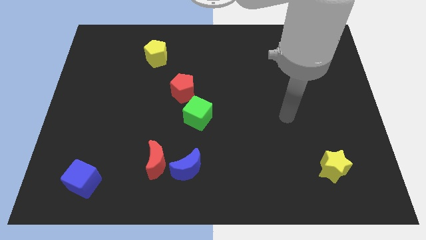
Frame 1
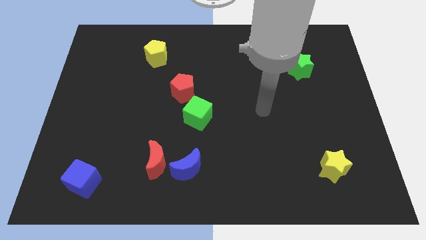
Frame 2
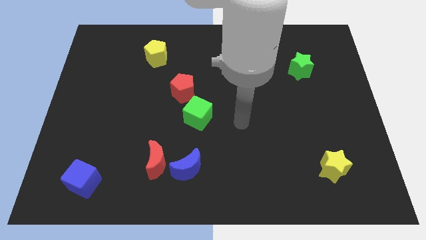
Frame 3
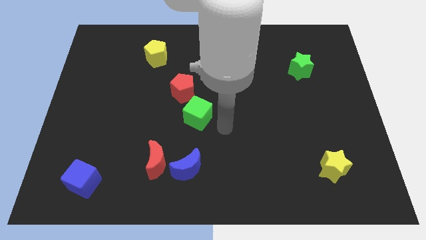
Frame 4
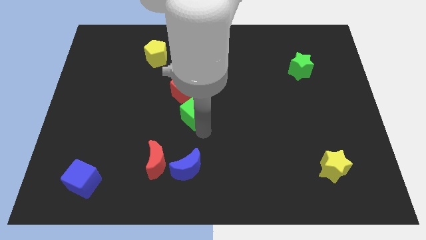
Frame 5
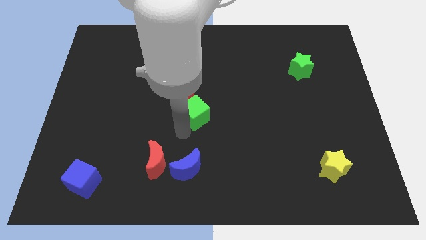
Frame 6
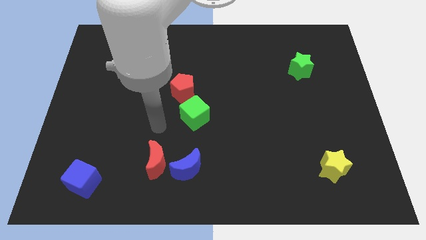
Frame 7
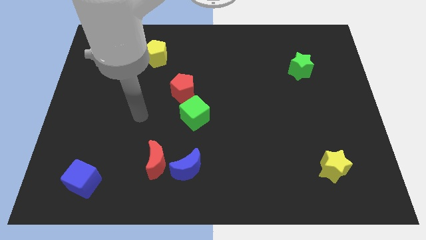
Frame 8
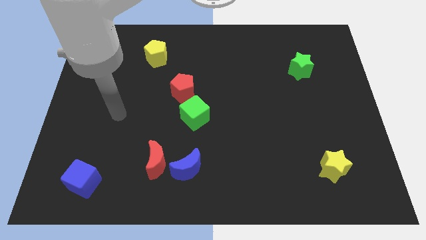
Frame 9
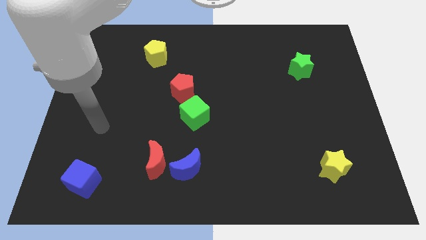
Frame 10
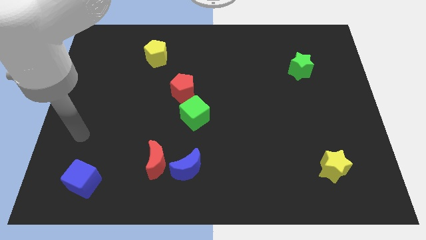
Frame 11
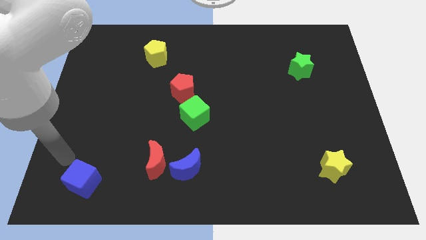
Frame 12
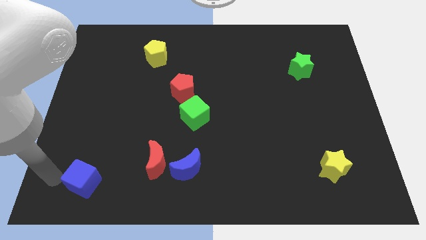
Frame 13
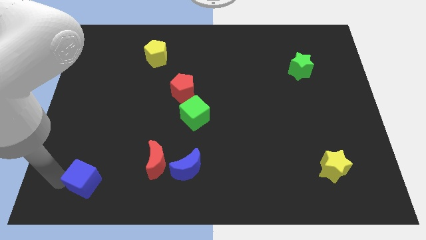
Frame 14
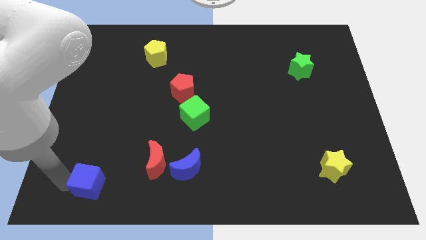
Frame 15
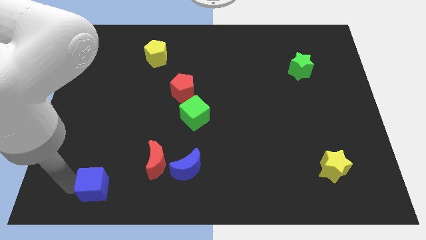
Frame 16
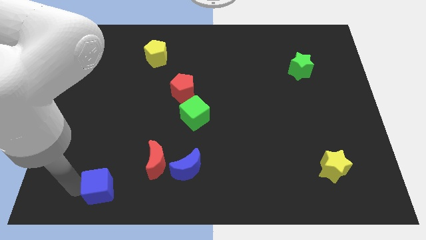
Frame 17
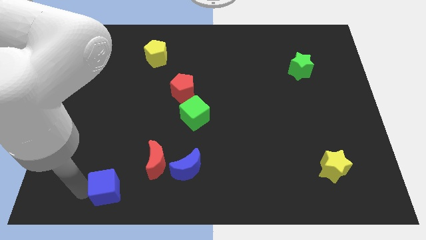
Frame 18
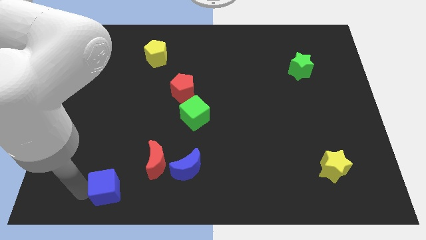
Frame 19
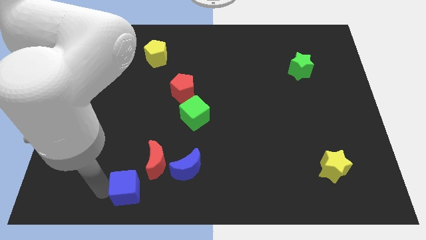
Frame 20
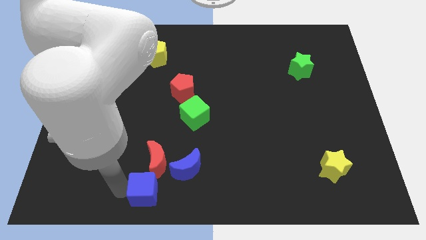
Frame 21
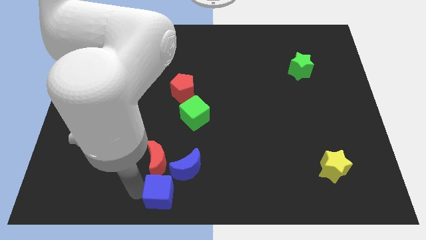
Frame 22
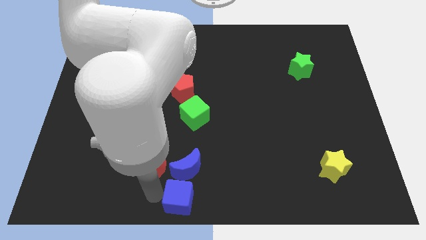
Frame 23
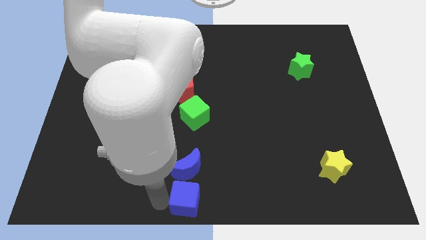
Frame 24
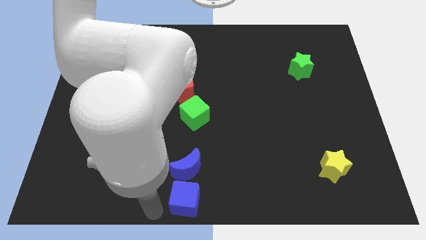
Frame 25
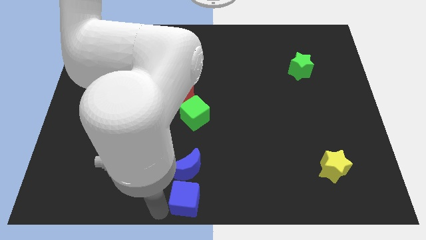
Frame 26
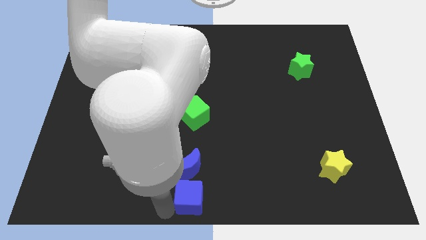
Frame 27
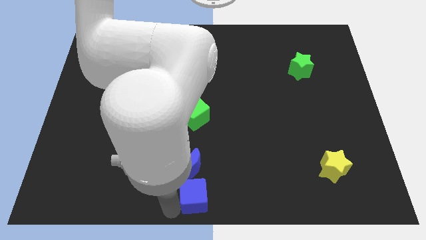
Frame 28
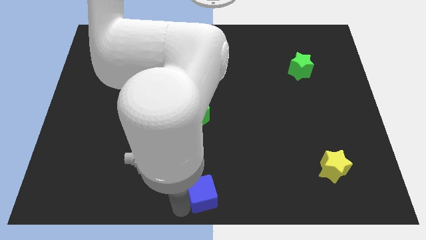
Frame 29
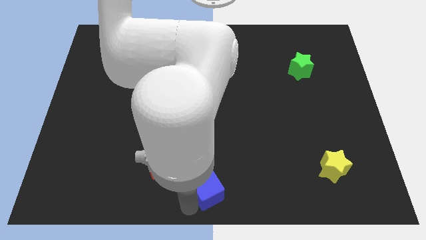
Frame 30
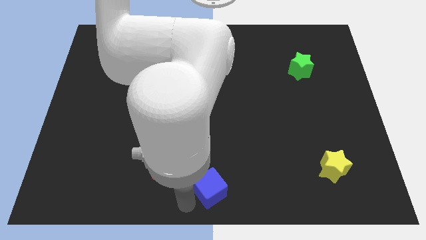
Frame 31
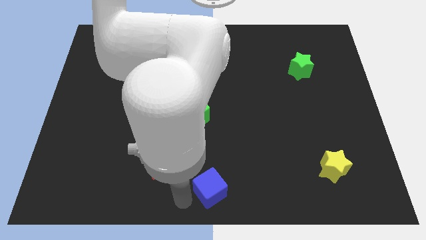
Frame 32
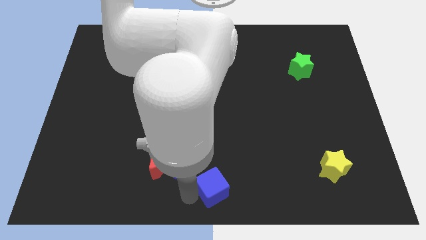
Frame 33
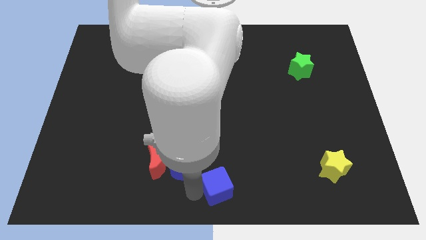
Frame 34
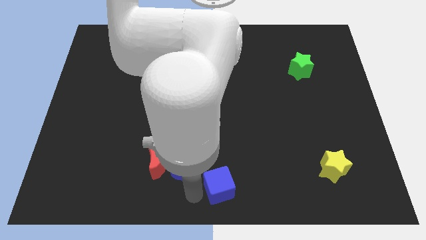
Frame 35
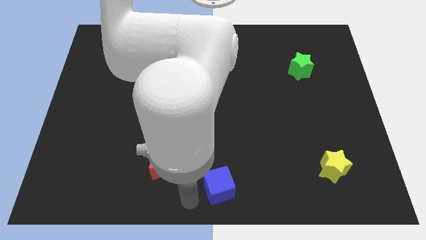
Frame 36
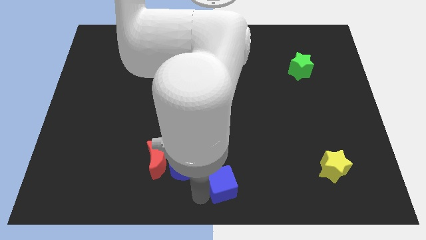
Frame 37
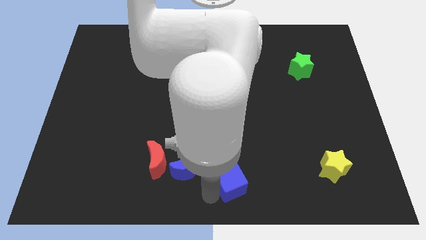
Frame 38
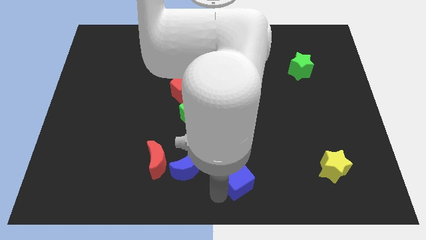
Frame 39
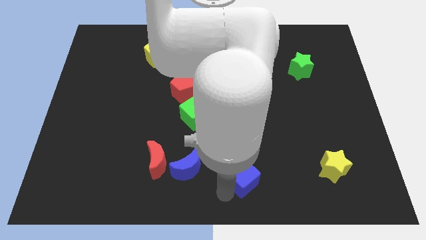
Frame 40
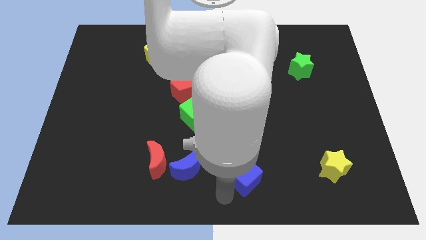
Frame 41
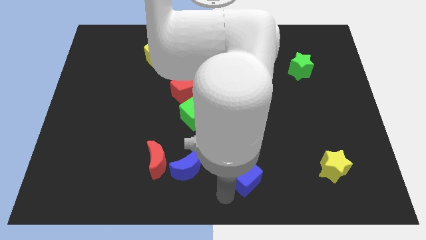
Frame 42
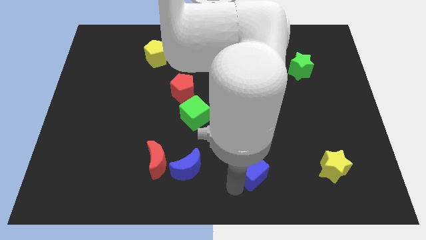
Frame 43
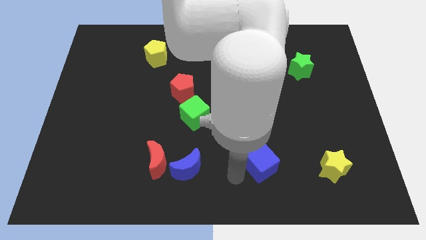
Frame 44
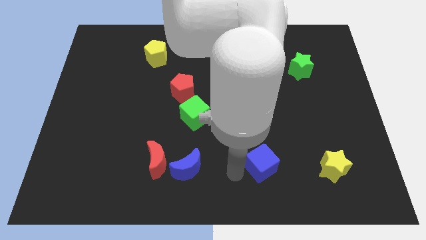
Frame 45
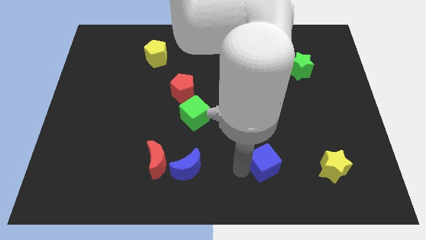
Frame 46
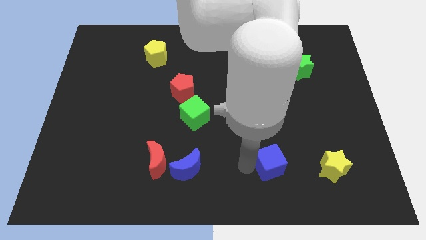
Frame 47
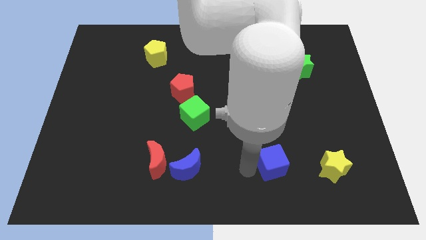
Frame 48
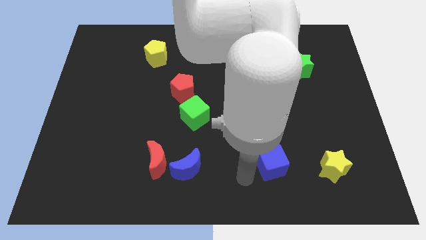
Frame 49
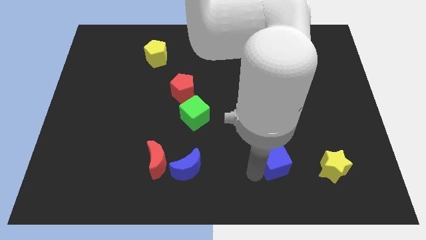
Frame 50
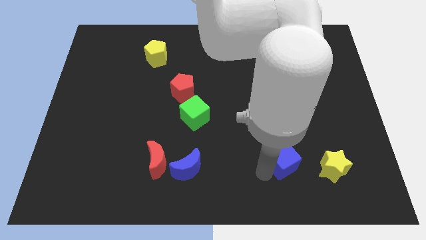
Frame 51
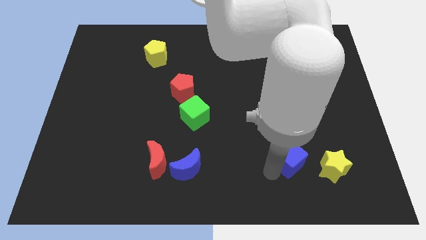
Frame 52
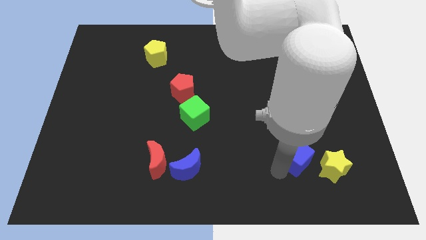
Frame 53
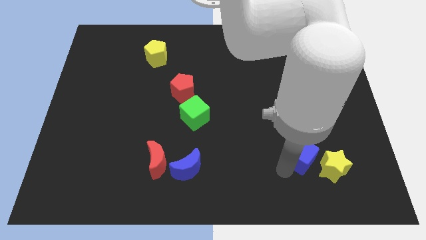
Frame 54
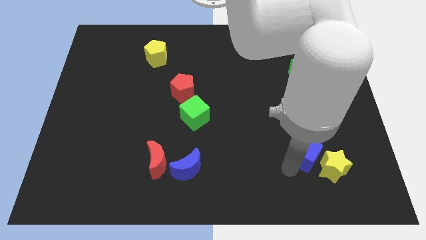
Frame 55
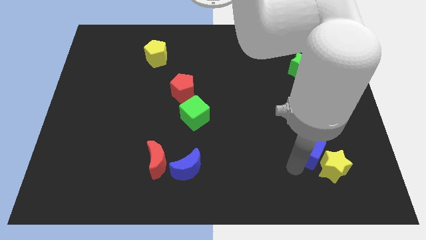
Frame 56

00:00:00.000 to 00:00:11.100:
push the blue cube above the yellow star

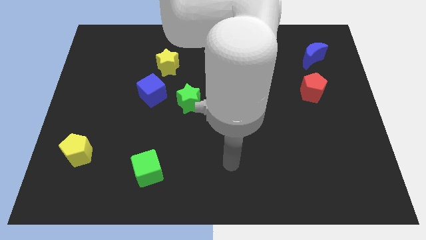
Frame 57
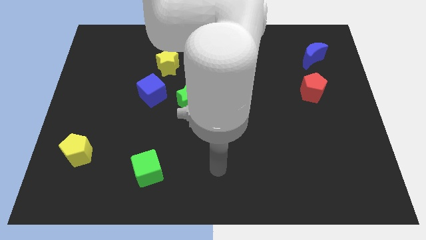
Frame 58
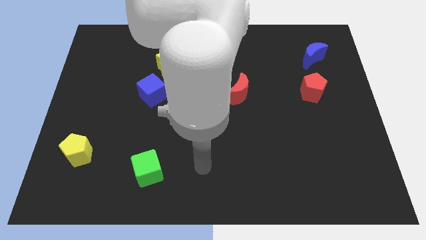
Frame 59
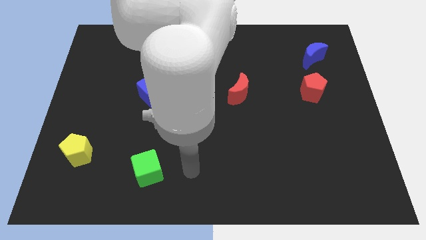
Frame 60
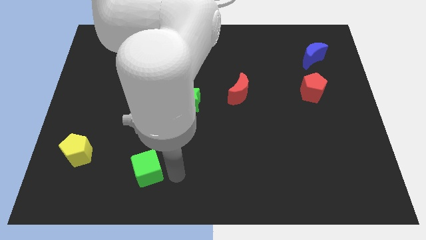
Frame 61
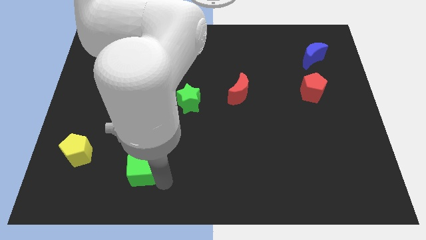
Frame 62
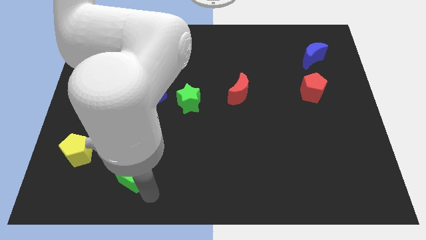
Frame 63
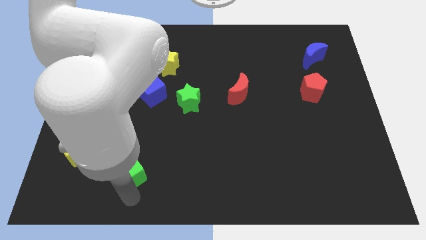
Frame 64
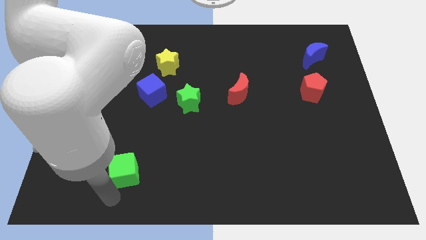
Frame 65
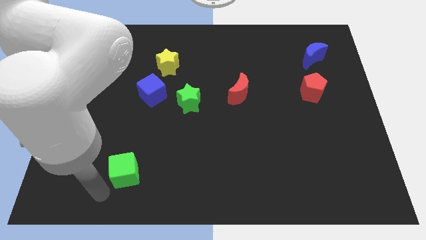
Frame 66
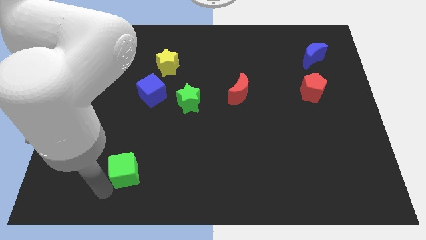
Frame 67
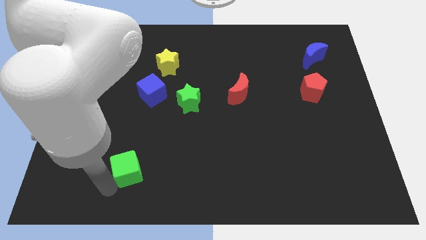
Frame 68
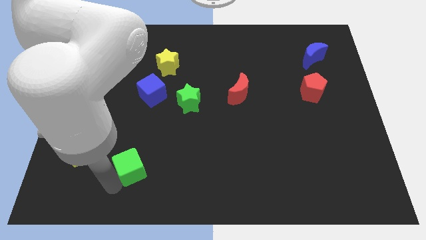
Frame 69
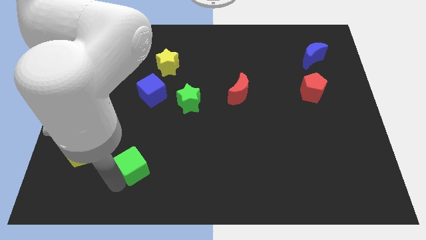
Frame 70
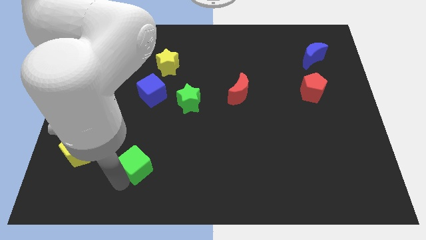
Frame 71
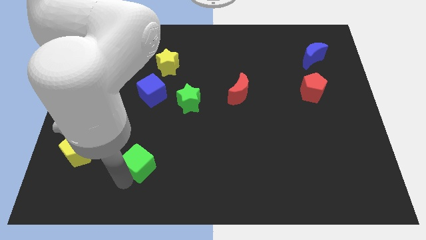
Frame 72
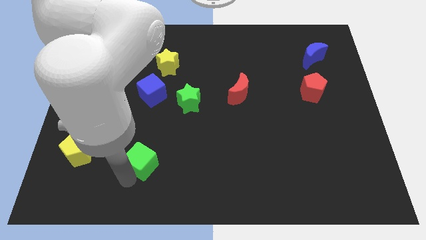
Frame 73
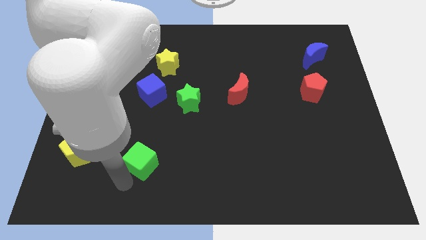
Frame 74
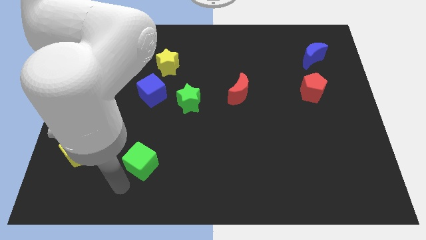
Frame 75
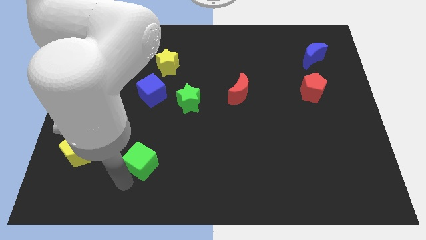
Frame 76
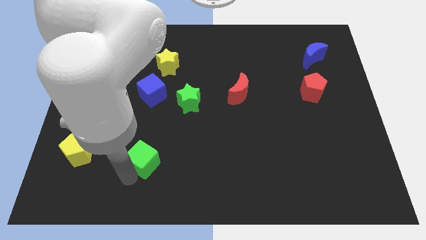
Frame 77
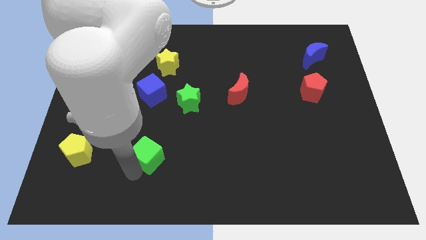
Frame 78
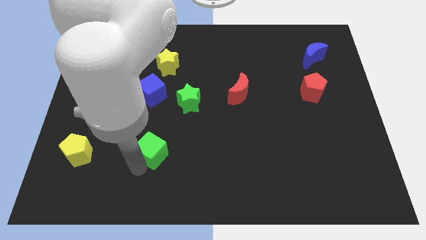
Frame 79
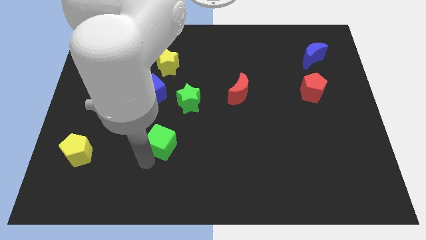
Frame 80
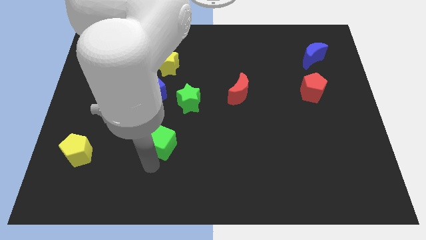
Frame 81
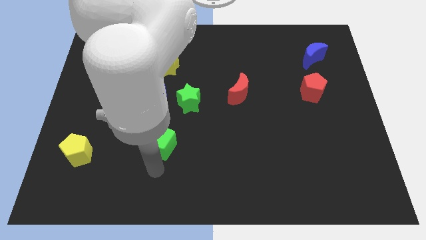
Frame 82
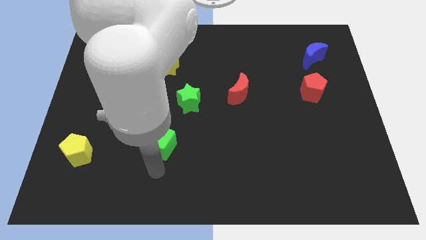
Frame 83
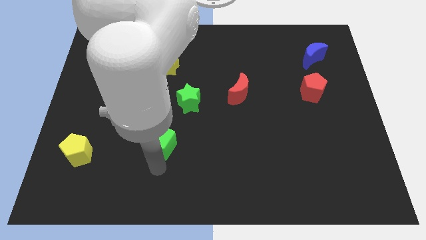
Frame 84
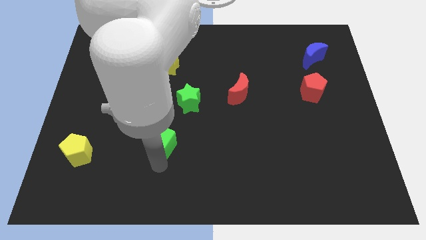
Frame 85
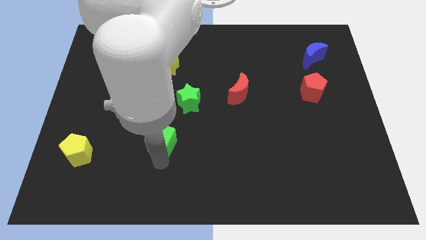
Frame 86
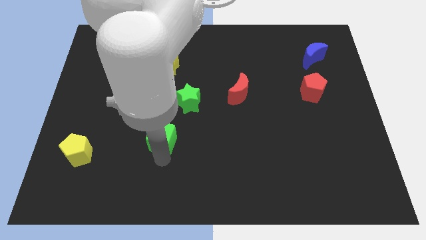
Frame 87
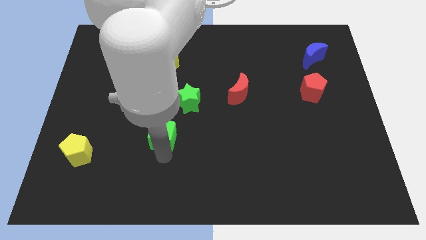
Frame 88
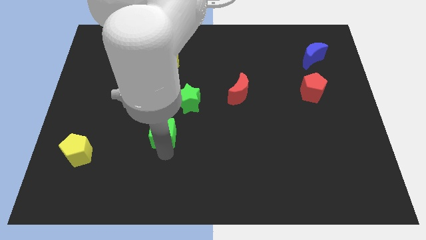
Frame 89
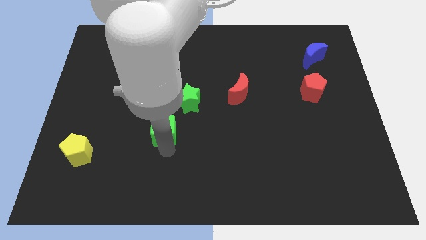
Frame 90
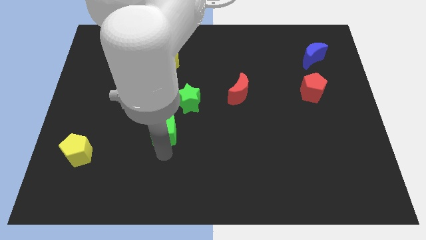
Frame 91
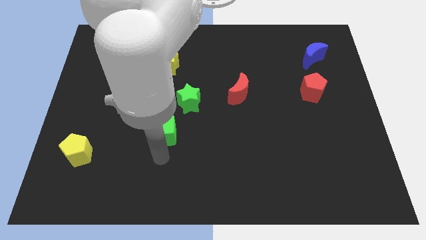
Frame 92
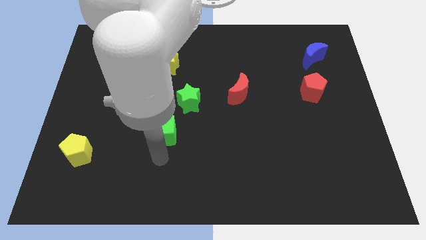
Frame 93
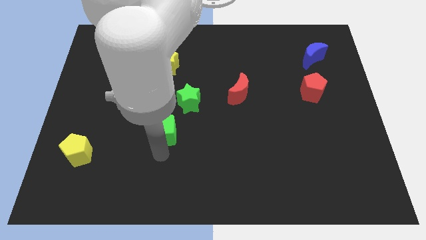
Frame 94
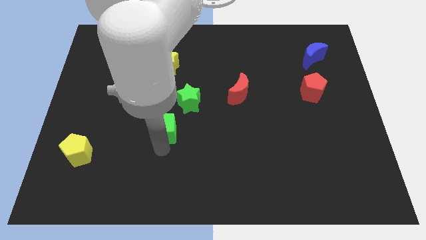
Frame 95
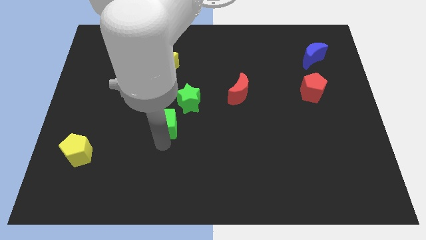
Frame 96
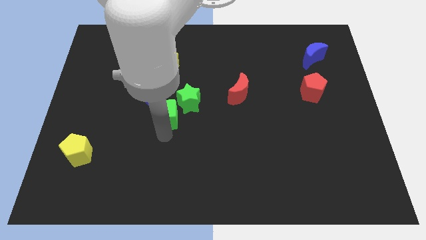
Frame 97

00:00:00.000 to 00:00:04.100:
move the green cube to the bottom side of the yellow star
